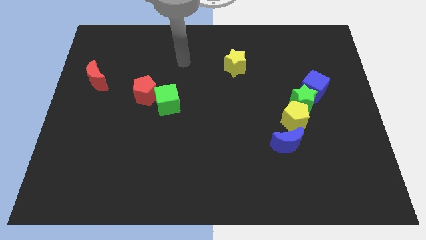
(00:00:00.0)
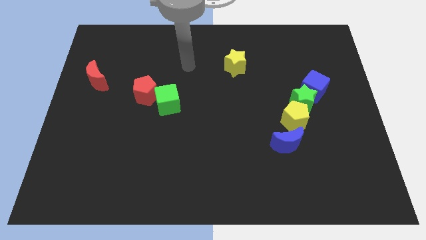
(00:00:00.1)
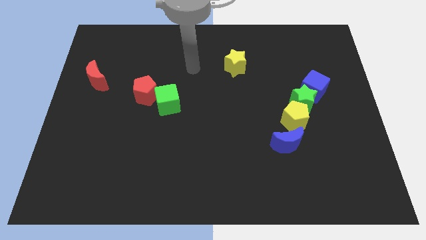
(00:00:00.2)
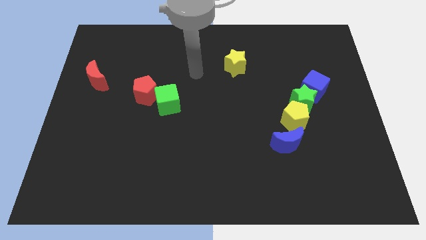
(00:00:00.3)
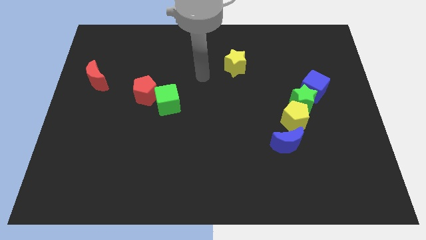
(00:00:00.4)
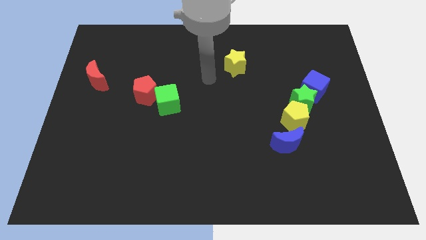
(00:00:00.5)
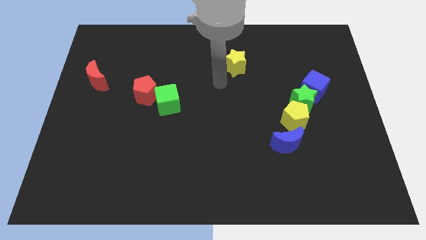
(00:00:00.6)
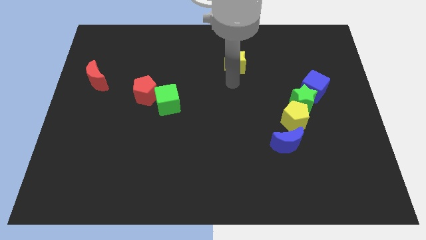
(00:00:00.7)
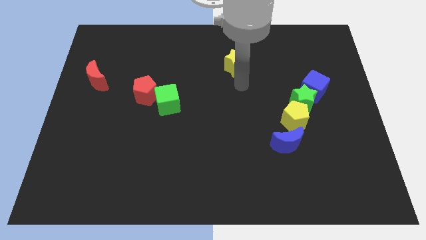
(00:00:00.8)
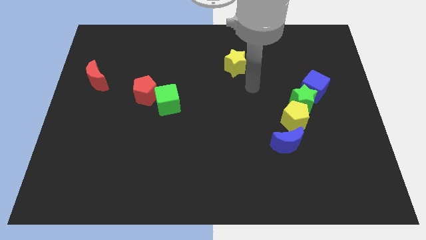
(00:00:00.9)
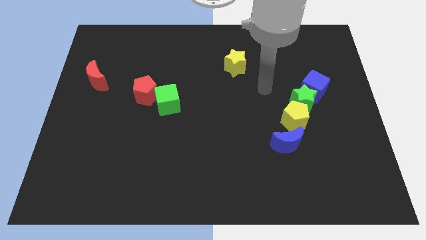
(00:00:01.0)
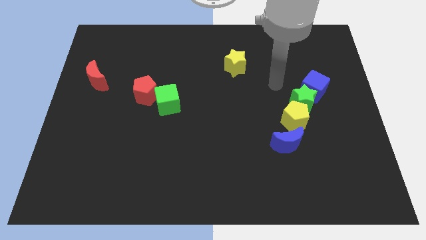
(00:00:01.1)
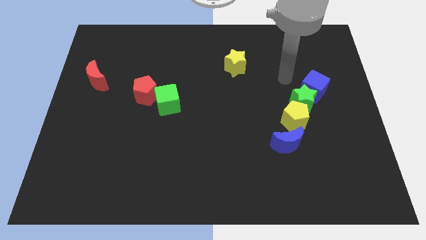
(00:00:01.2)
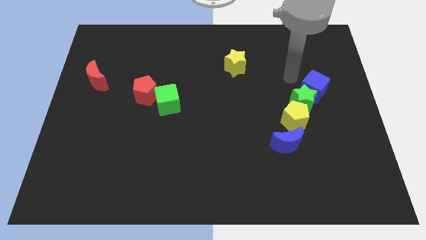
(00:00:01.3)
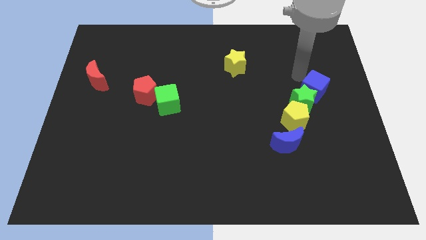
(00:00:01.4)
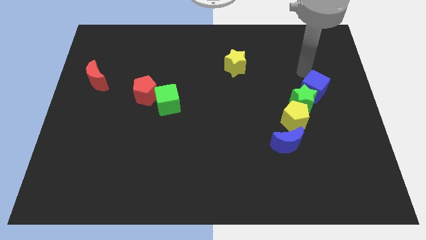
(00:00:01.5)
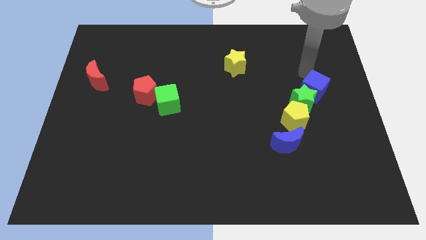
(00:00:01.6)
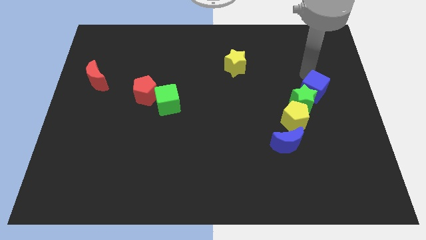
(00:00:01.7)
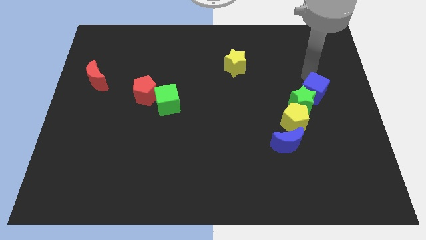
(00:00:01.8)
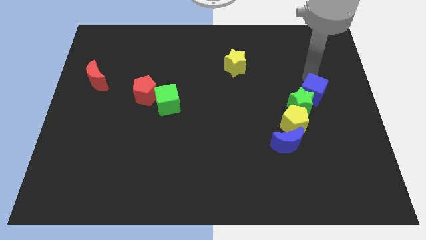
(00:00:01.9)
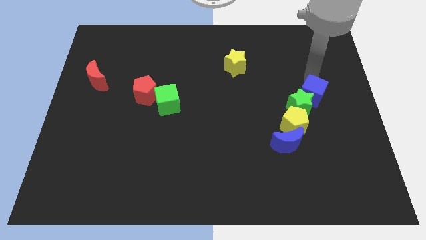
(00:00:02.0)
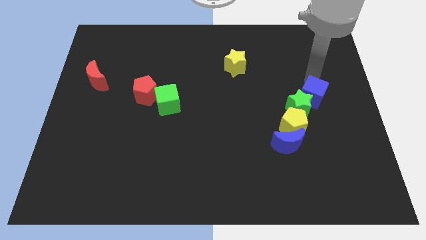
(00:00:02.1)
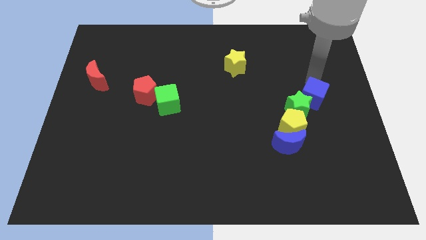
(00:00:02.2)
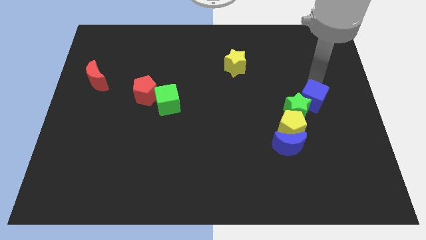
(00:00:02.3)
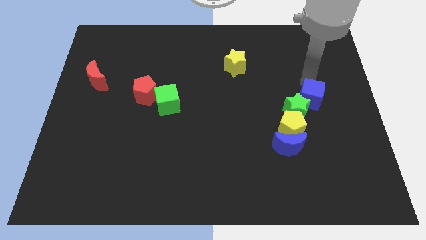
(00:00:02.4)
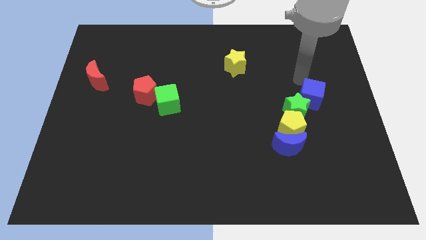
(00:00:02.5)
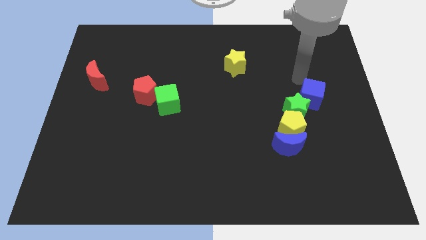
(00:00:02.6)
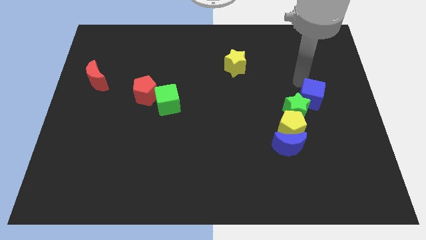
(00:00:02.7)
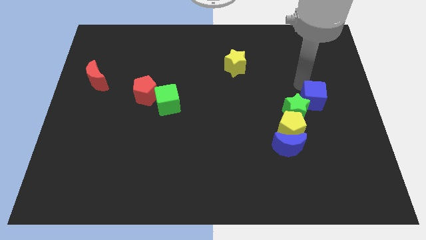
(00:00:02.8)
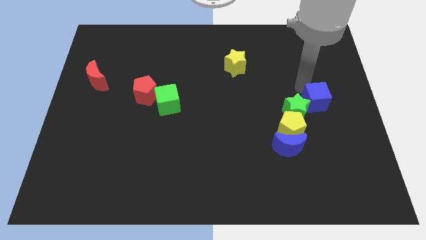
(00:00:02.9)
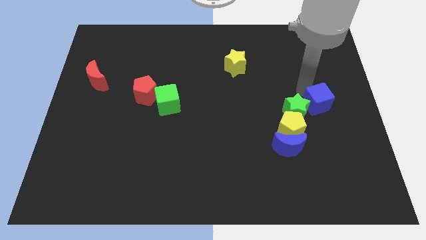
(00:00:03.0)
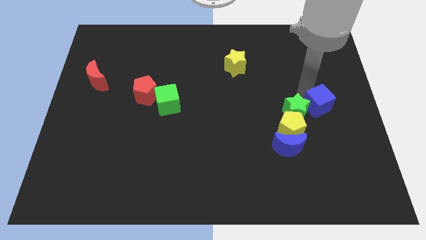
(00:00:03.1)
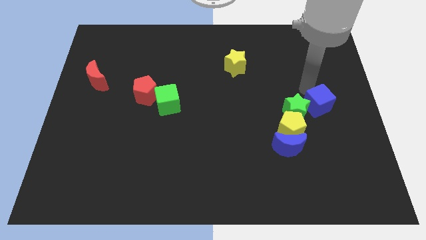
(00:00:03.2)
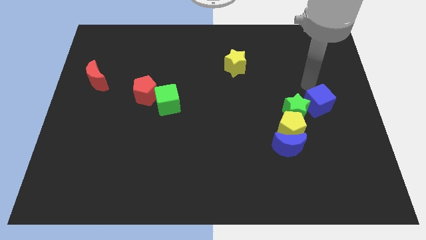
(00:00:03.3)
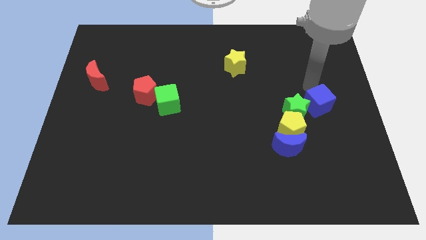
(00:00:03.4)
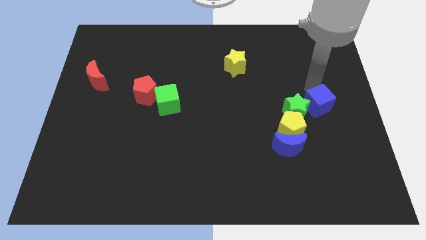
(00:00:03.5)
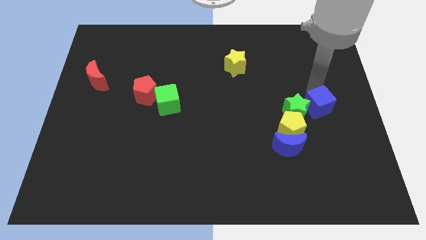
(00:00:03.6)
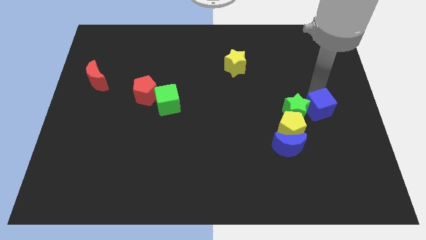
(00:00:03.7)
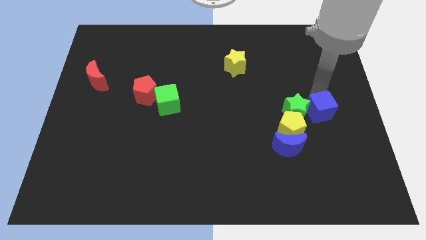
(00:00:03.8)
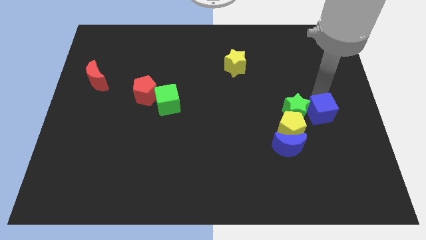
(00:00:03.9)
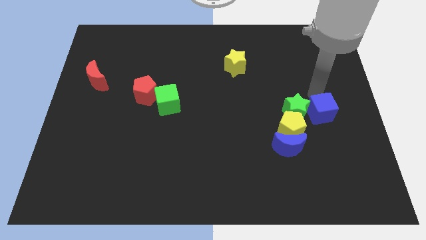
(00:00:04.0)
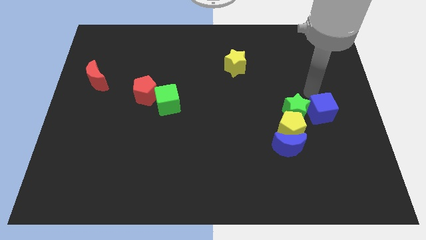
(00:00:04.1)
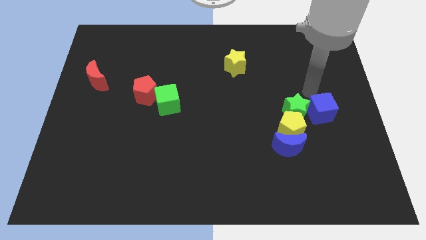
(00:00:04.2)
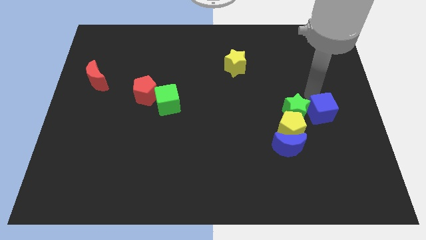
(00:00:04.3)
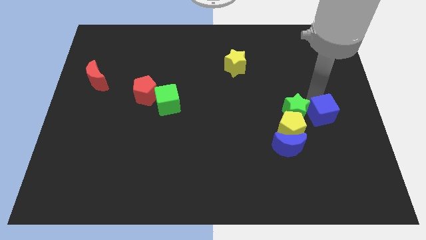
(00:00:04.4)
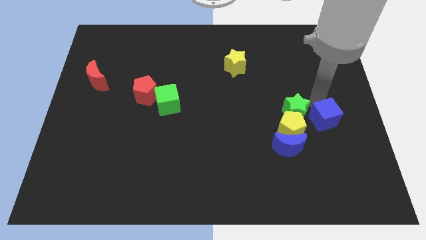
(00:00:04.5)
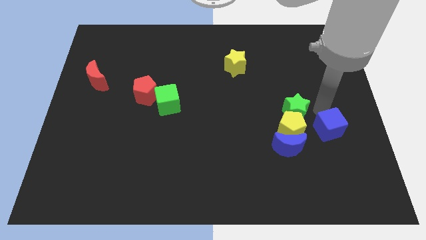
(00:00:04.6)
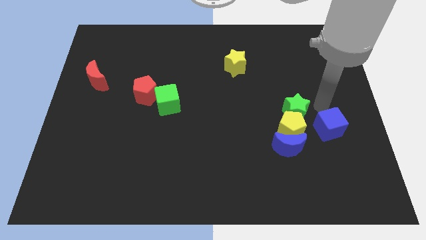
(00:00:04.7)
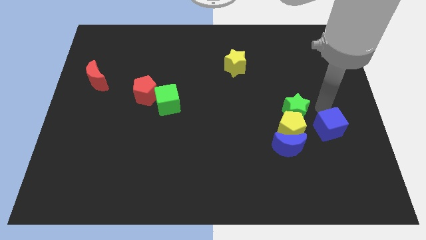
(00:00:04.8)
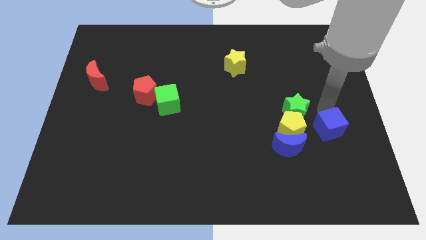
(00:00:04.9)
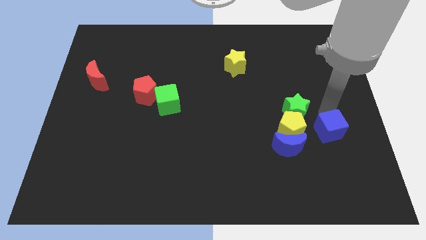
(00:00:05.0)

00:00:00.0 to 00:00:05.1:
put the blue cube right of the blue moon

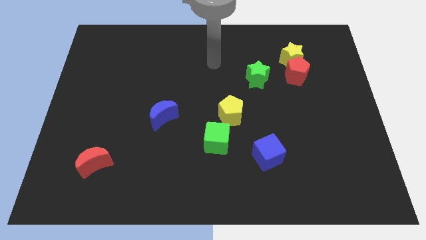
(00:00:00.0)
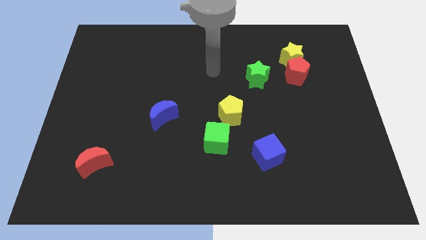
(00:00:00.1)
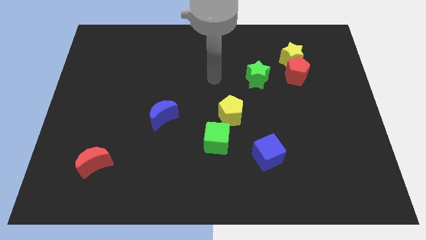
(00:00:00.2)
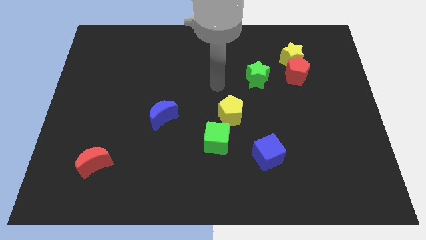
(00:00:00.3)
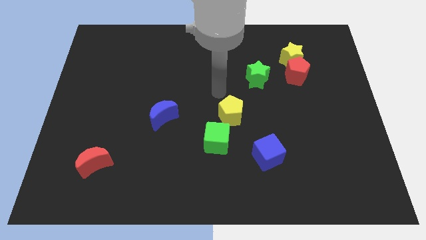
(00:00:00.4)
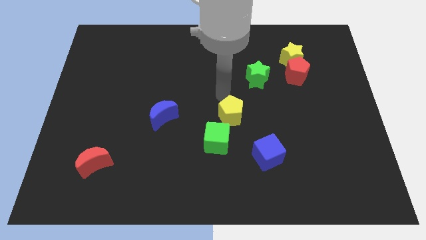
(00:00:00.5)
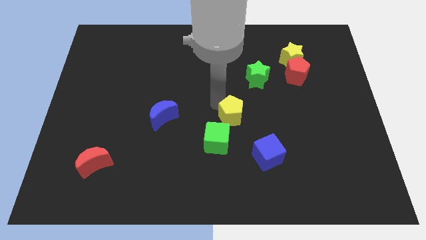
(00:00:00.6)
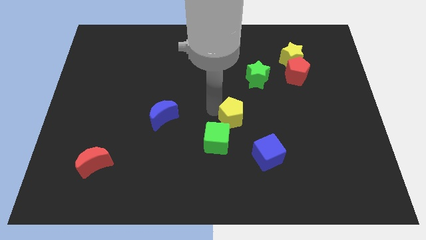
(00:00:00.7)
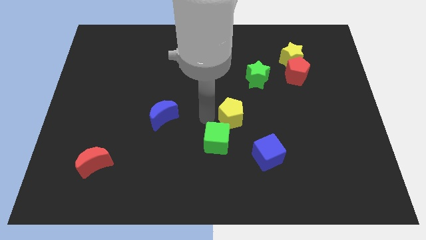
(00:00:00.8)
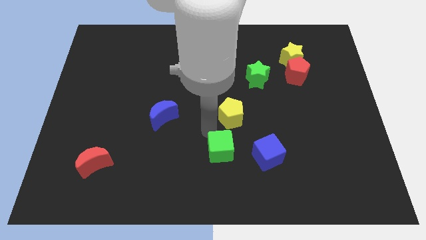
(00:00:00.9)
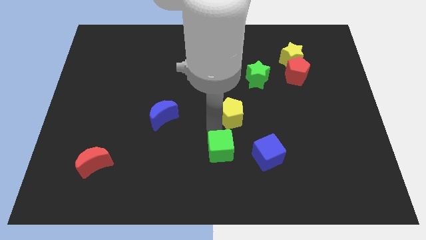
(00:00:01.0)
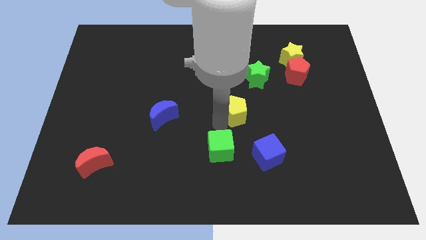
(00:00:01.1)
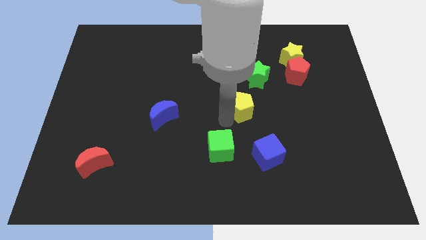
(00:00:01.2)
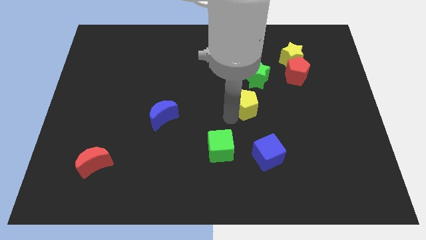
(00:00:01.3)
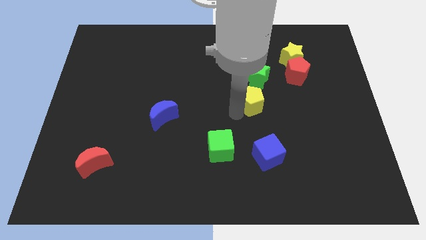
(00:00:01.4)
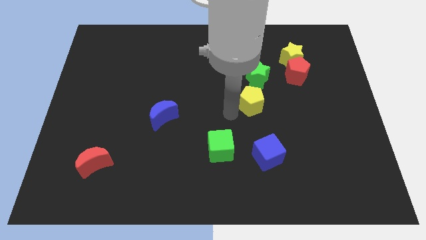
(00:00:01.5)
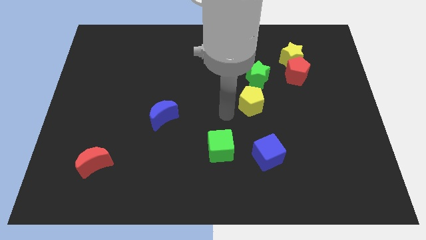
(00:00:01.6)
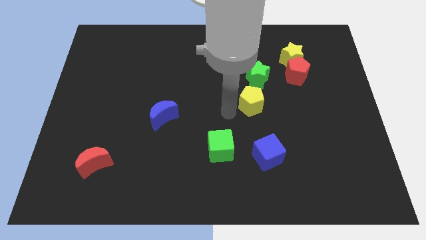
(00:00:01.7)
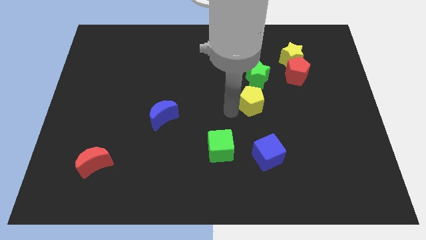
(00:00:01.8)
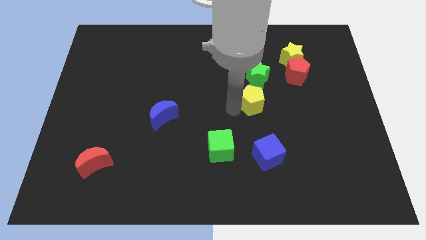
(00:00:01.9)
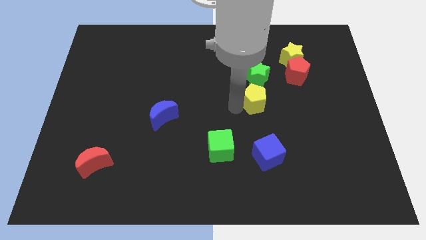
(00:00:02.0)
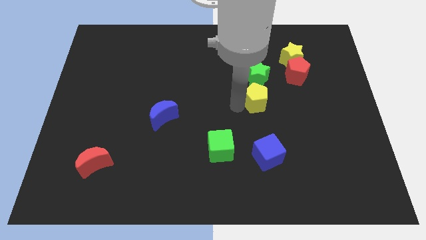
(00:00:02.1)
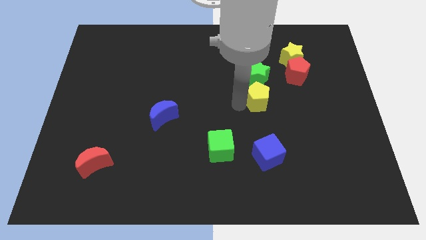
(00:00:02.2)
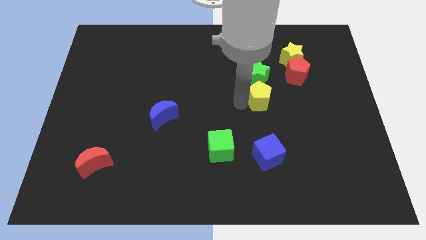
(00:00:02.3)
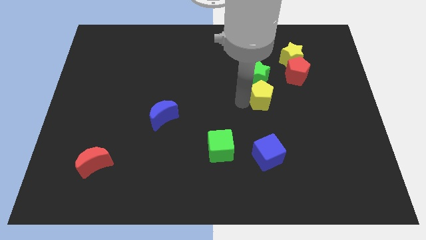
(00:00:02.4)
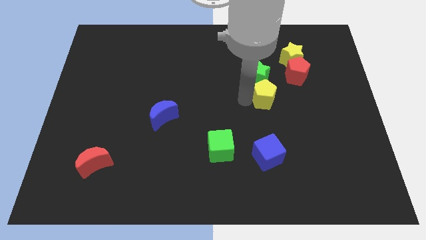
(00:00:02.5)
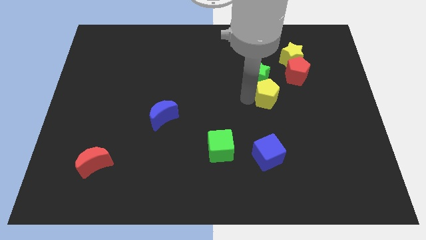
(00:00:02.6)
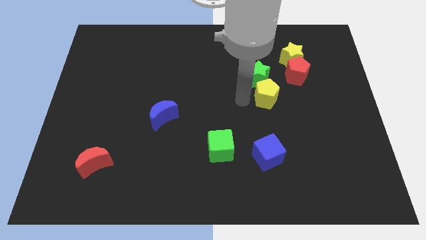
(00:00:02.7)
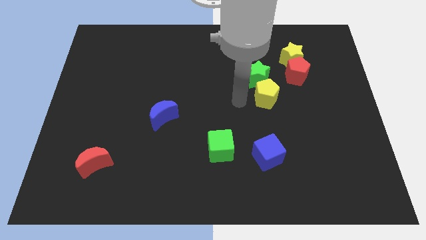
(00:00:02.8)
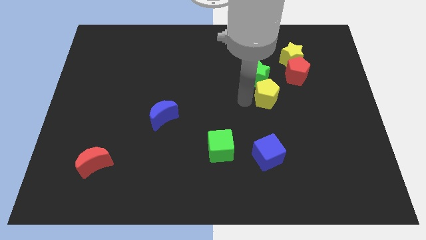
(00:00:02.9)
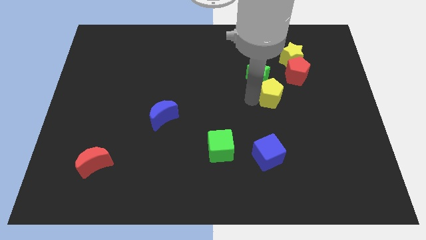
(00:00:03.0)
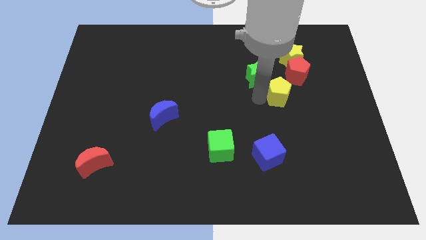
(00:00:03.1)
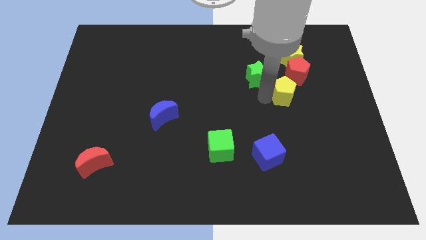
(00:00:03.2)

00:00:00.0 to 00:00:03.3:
slide the yellow pentagon just right of the green star
